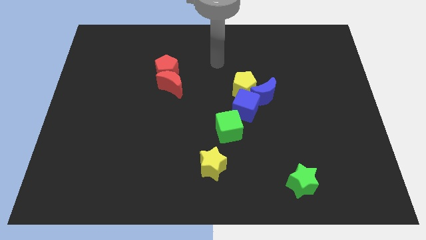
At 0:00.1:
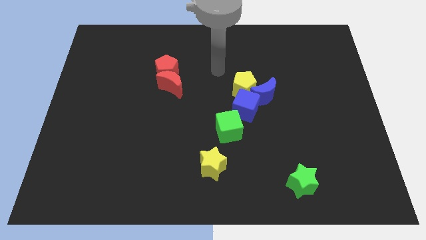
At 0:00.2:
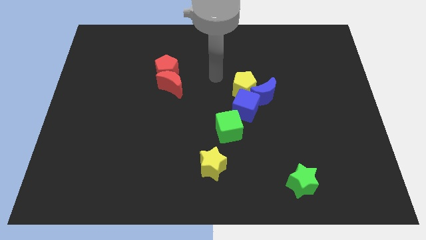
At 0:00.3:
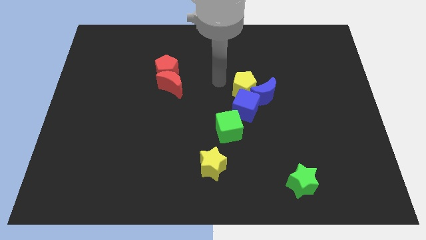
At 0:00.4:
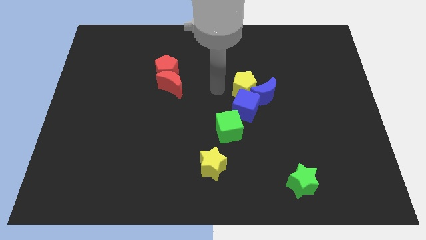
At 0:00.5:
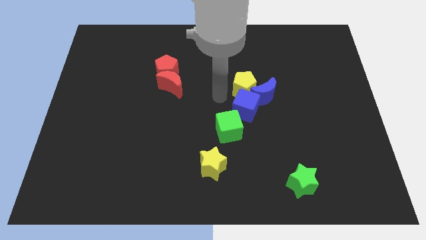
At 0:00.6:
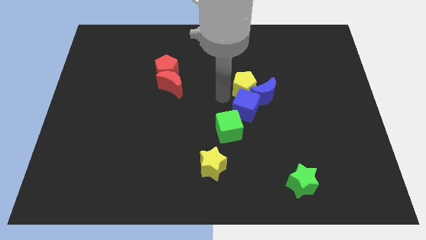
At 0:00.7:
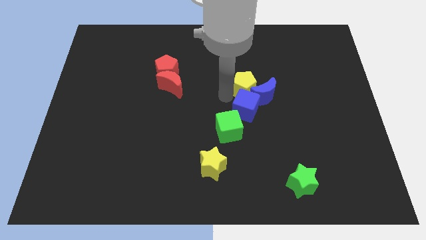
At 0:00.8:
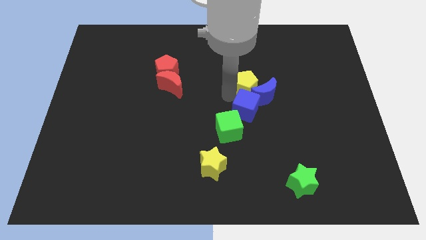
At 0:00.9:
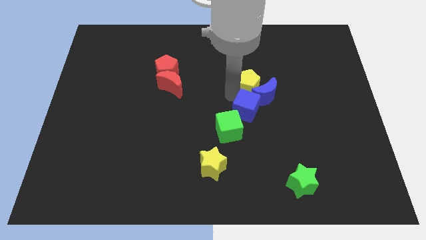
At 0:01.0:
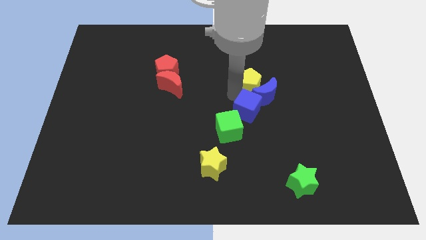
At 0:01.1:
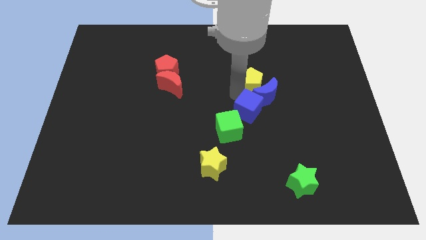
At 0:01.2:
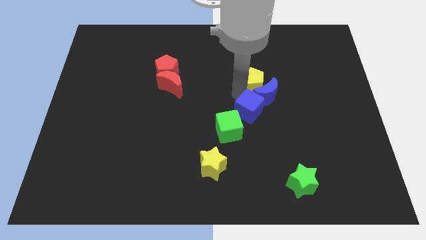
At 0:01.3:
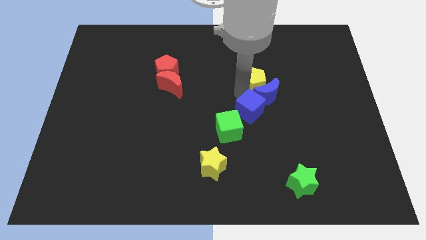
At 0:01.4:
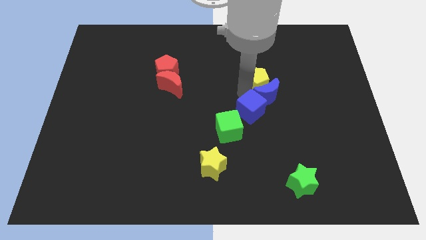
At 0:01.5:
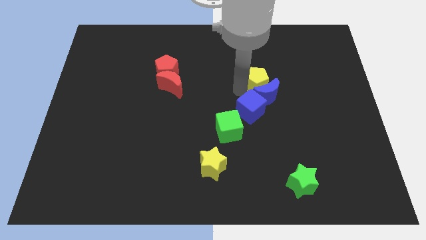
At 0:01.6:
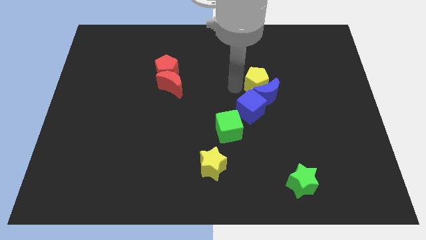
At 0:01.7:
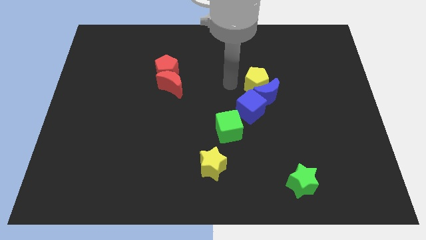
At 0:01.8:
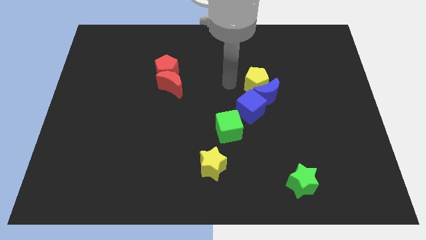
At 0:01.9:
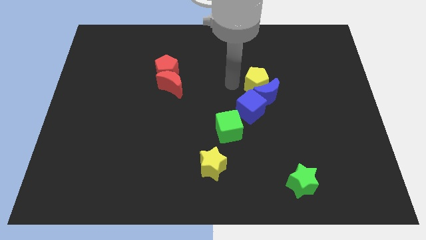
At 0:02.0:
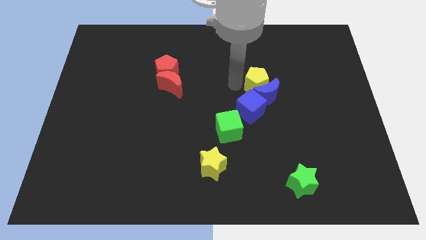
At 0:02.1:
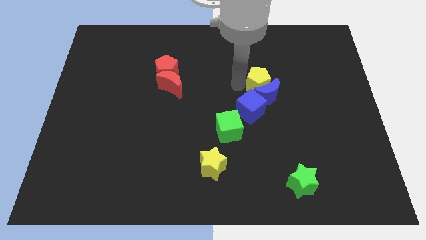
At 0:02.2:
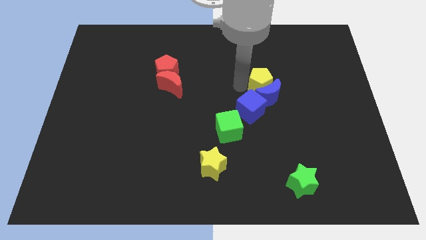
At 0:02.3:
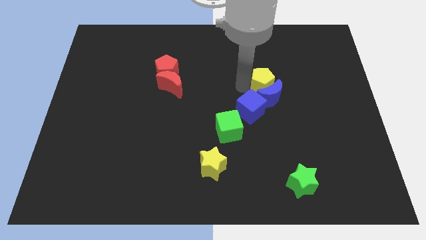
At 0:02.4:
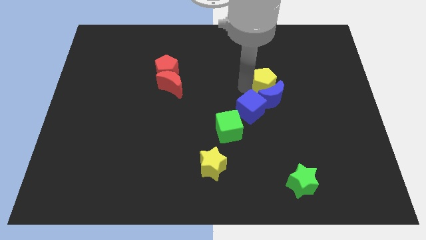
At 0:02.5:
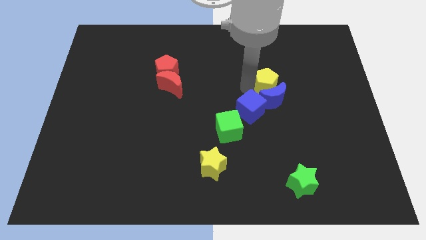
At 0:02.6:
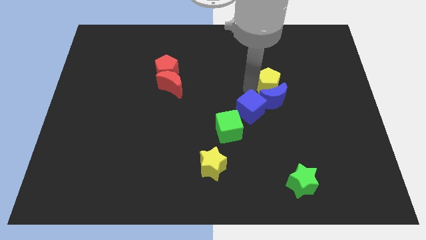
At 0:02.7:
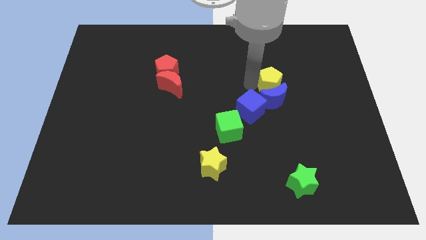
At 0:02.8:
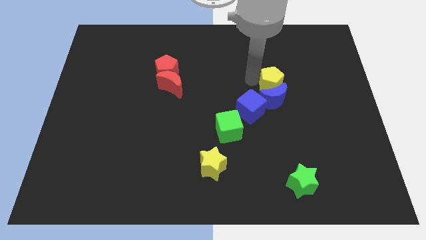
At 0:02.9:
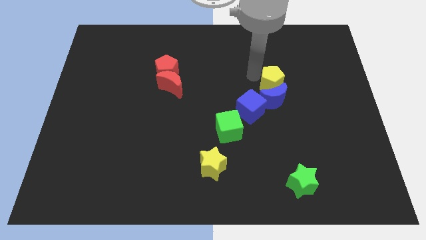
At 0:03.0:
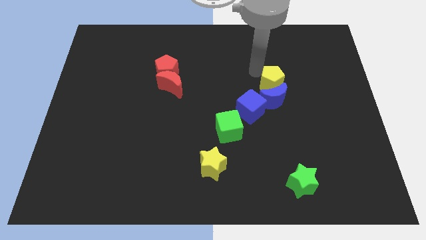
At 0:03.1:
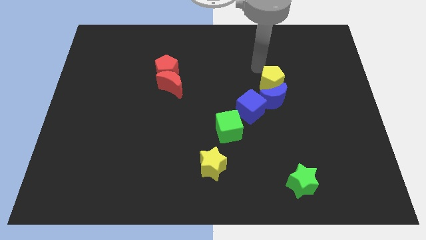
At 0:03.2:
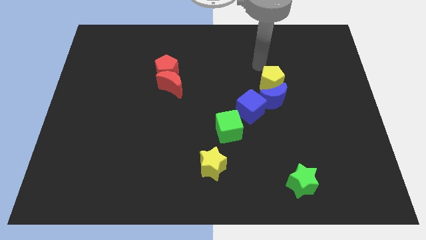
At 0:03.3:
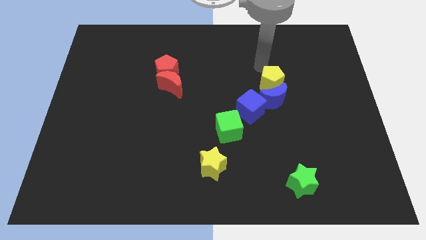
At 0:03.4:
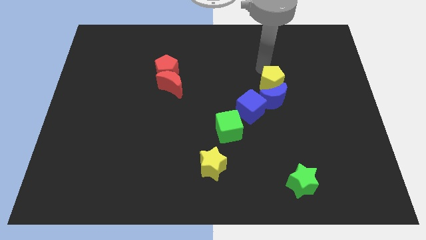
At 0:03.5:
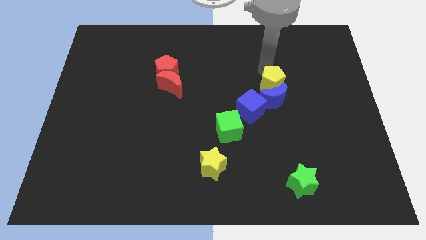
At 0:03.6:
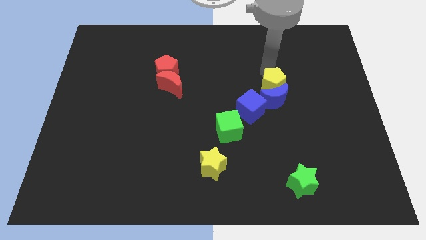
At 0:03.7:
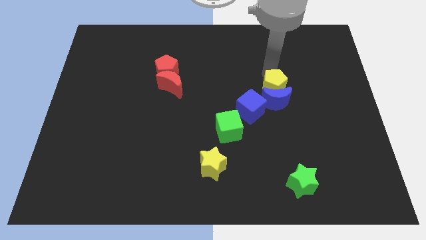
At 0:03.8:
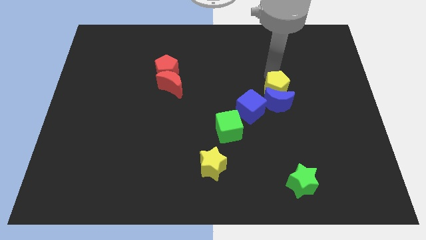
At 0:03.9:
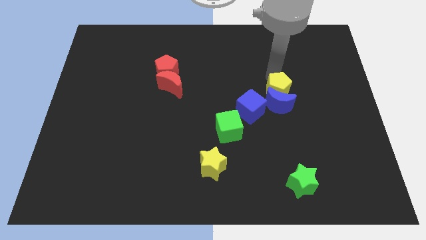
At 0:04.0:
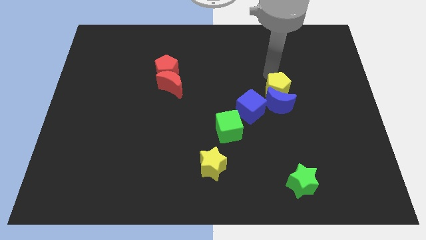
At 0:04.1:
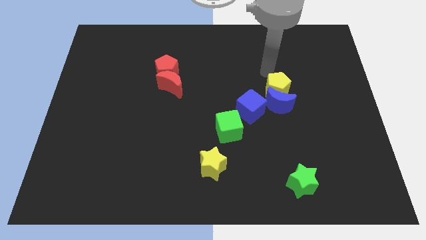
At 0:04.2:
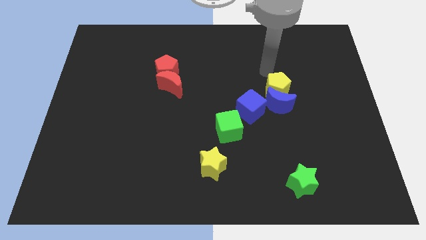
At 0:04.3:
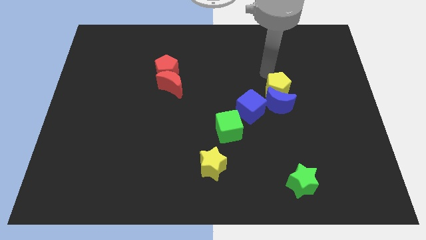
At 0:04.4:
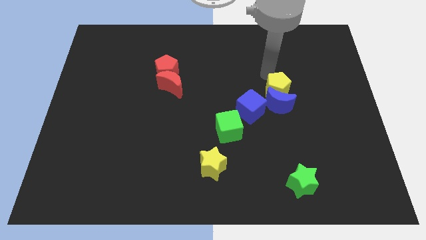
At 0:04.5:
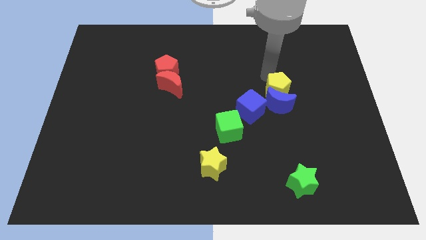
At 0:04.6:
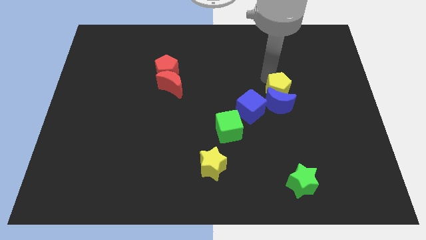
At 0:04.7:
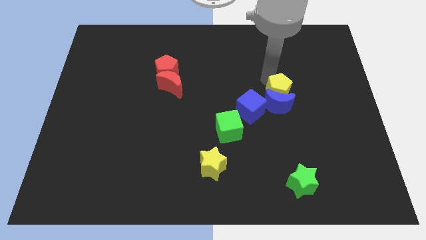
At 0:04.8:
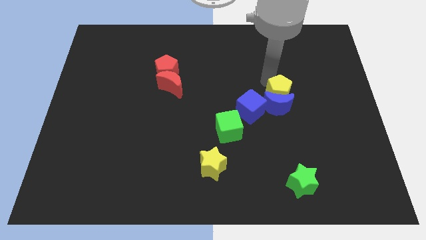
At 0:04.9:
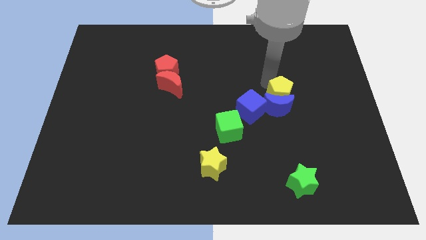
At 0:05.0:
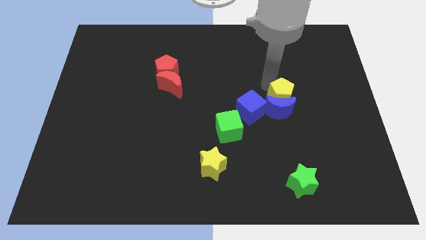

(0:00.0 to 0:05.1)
move the yellow pentagon somewhat down and right diagonally

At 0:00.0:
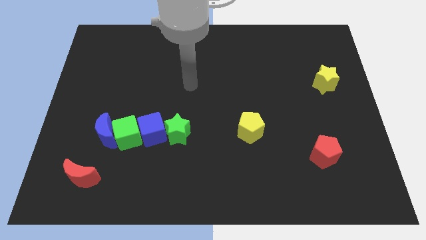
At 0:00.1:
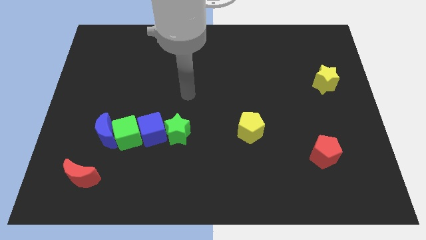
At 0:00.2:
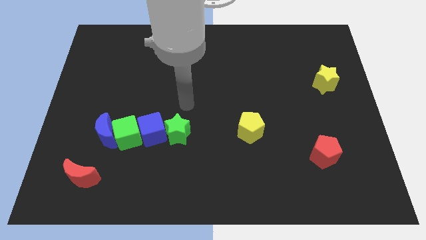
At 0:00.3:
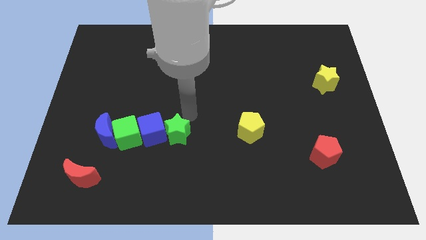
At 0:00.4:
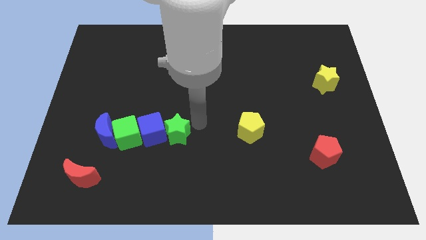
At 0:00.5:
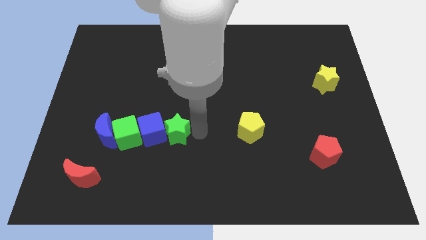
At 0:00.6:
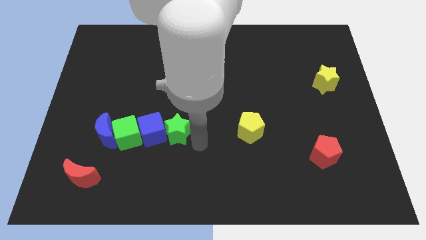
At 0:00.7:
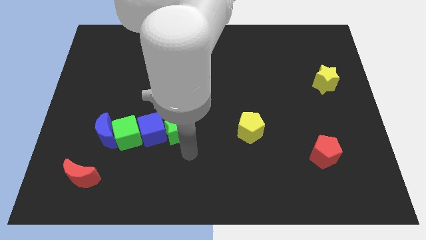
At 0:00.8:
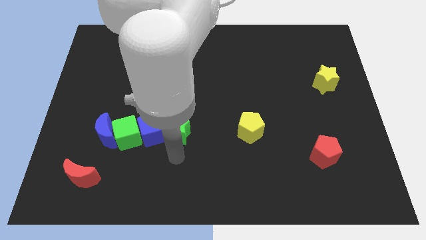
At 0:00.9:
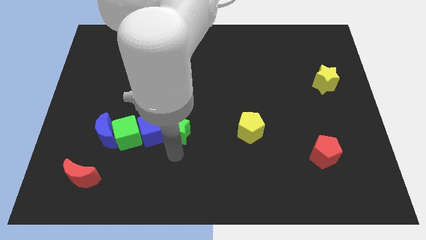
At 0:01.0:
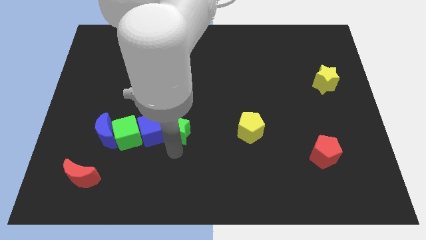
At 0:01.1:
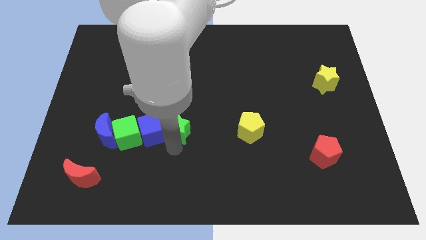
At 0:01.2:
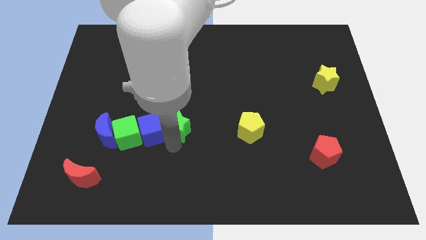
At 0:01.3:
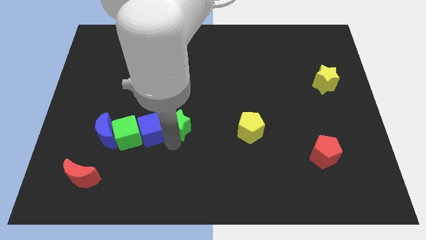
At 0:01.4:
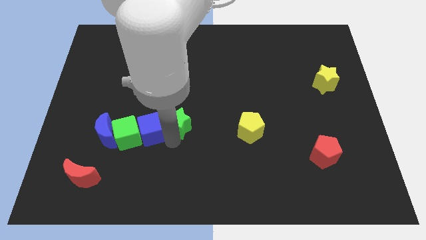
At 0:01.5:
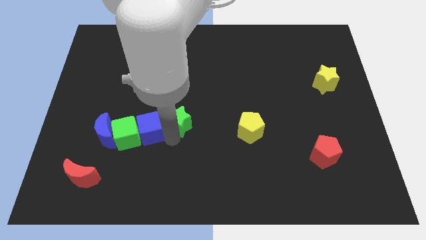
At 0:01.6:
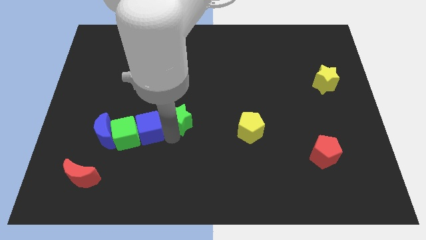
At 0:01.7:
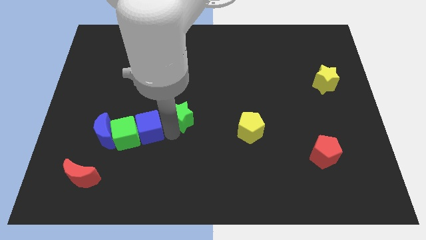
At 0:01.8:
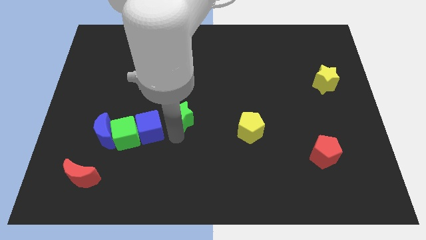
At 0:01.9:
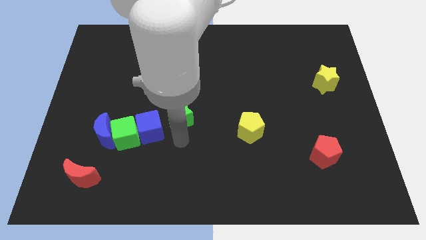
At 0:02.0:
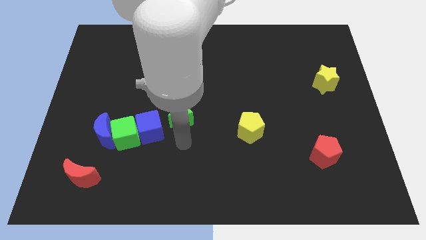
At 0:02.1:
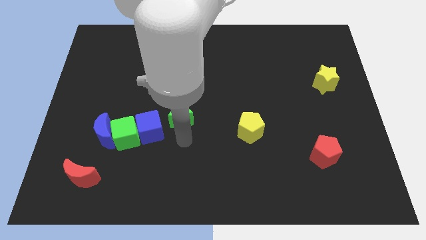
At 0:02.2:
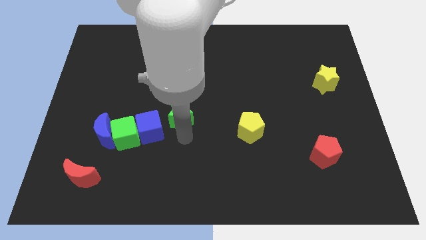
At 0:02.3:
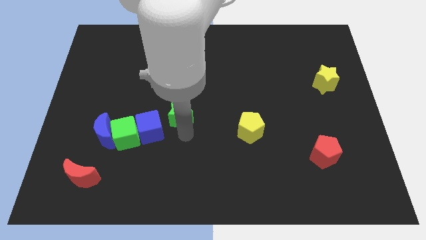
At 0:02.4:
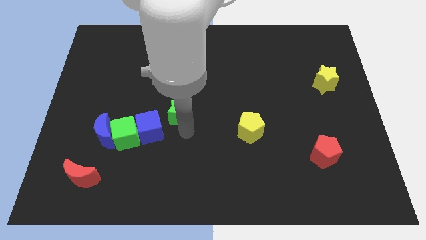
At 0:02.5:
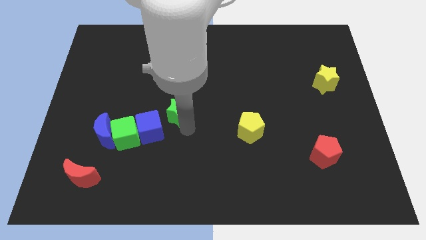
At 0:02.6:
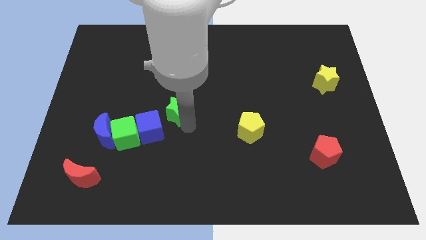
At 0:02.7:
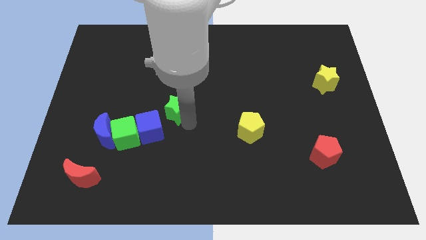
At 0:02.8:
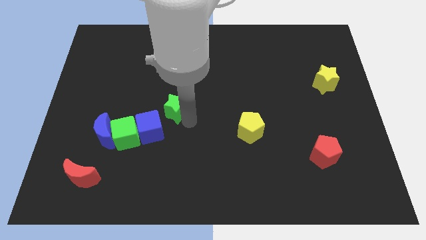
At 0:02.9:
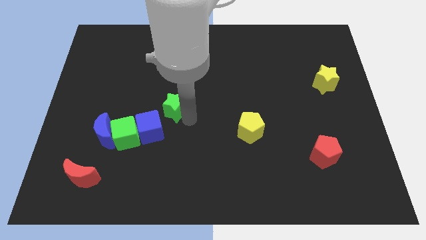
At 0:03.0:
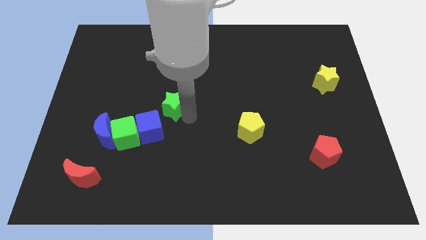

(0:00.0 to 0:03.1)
slightly move the green star up
